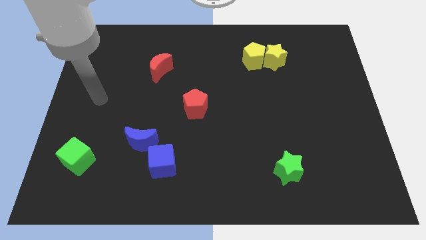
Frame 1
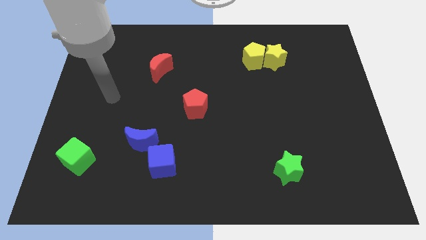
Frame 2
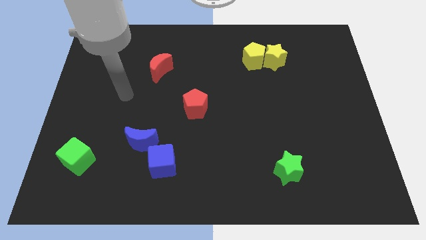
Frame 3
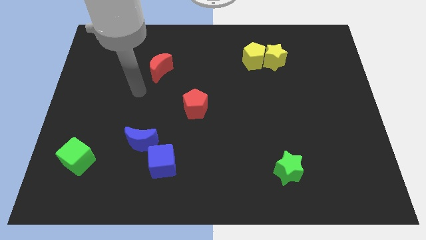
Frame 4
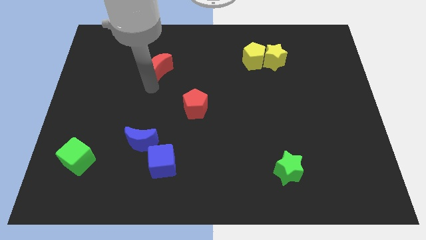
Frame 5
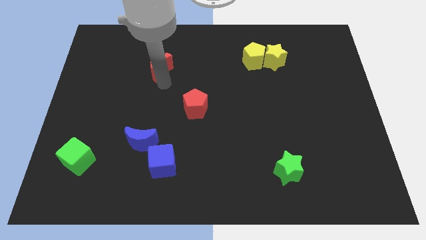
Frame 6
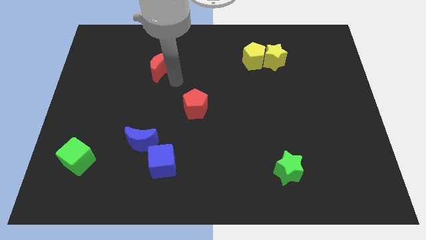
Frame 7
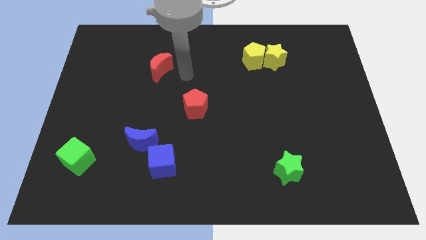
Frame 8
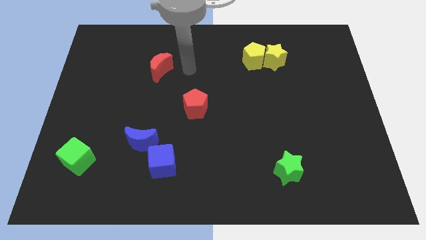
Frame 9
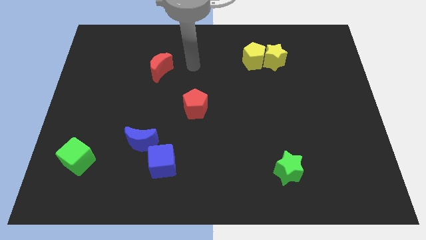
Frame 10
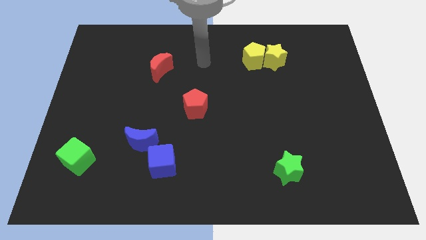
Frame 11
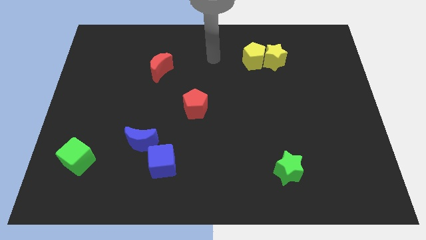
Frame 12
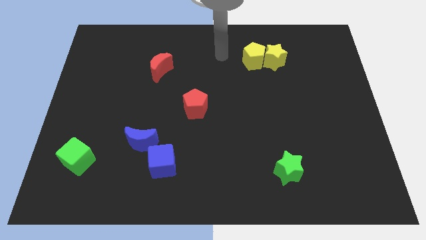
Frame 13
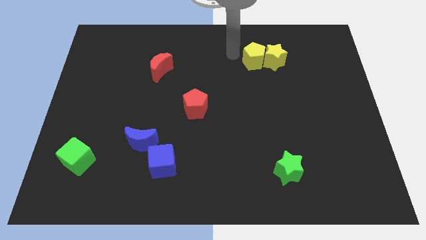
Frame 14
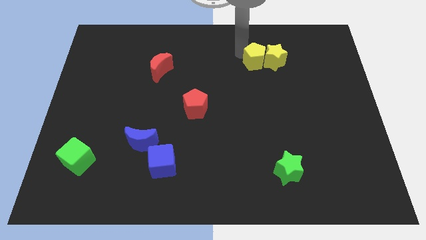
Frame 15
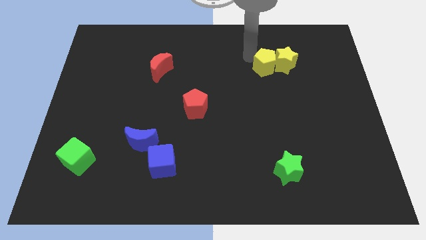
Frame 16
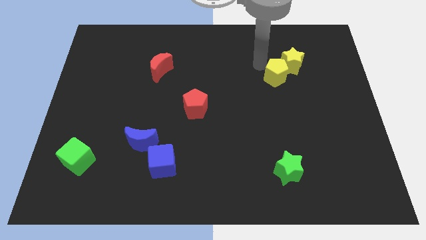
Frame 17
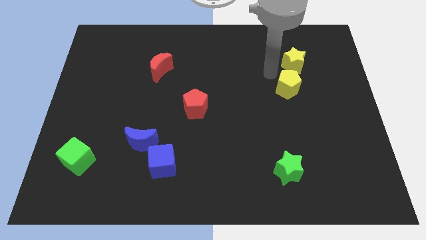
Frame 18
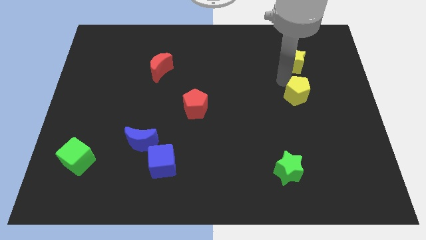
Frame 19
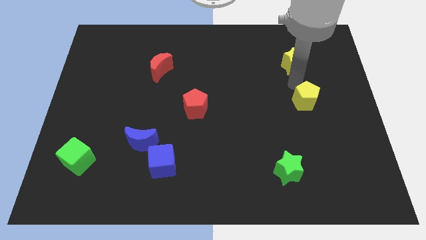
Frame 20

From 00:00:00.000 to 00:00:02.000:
separate the yellow star from the yellow pentagon

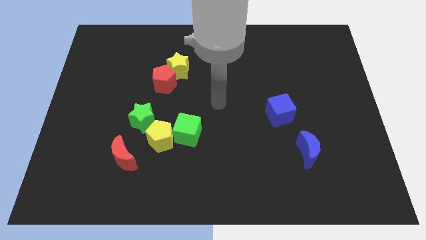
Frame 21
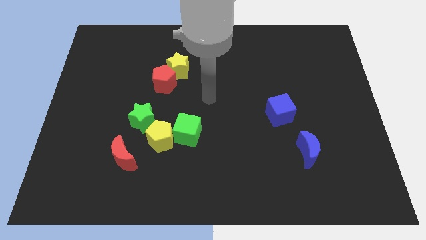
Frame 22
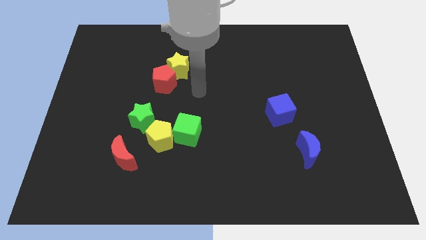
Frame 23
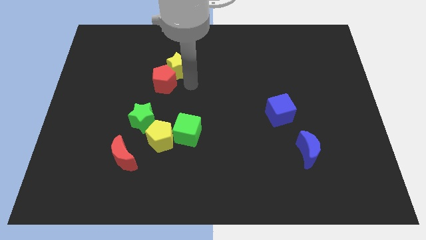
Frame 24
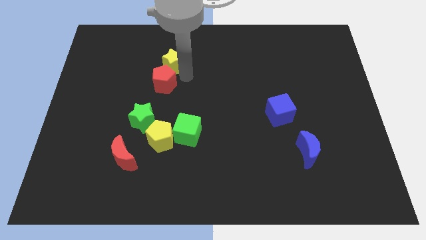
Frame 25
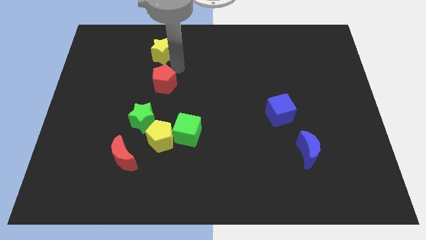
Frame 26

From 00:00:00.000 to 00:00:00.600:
pull the red pentagon apart from the yellow star

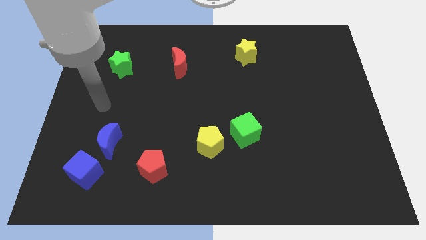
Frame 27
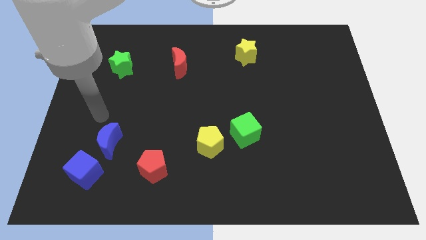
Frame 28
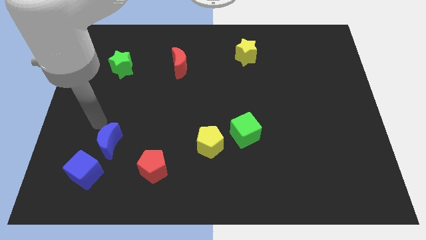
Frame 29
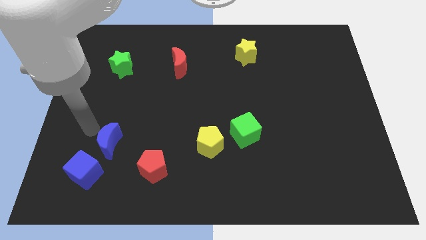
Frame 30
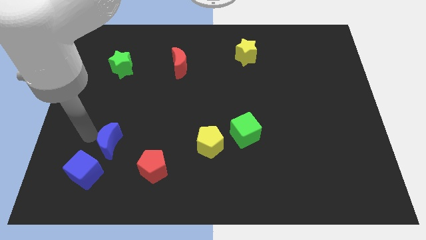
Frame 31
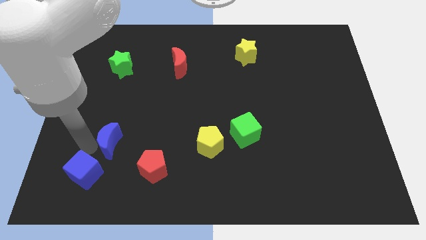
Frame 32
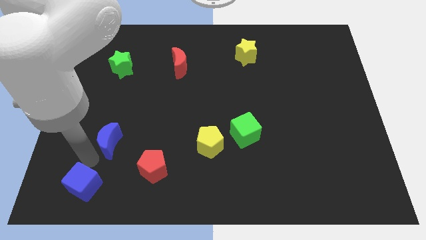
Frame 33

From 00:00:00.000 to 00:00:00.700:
separate the blue moon from the blue cube

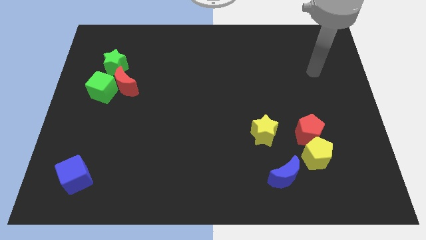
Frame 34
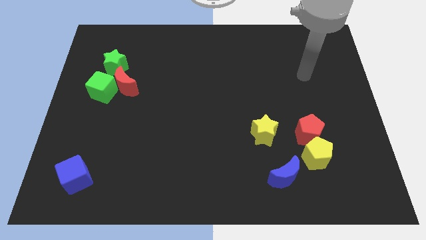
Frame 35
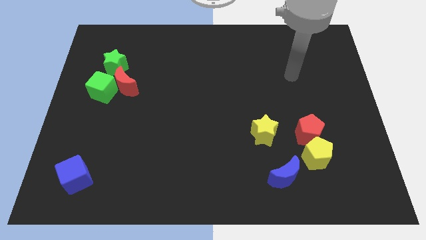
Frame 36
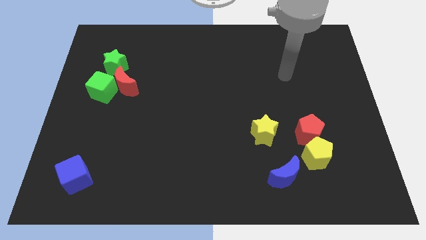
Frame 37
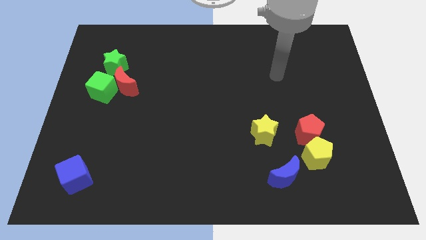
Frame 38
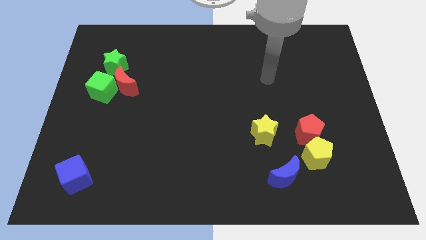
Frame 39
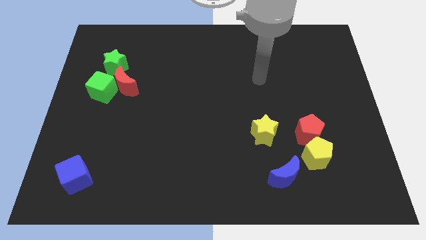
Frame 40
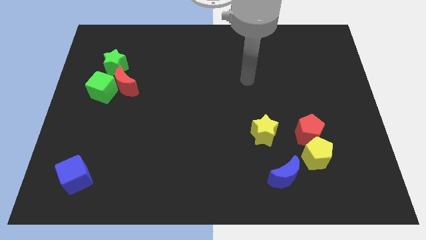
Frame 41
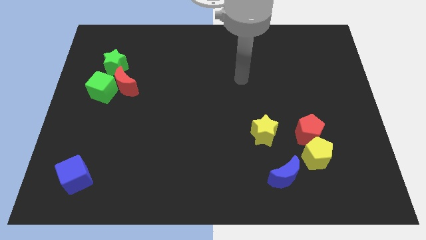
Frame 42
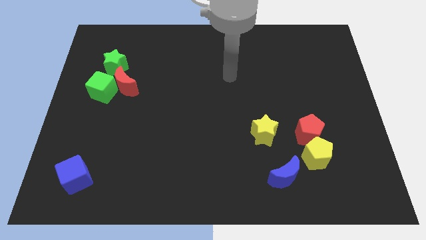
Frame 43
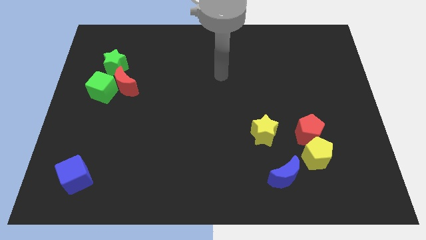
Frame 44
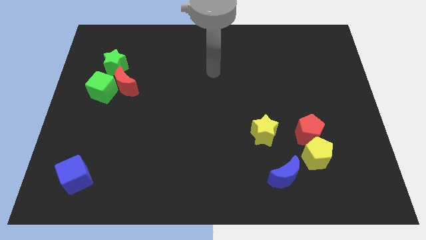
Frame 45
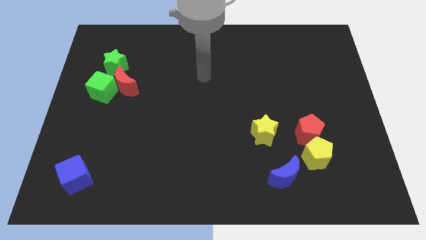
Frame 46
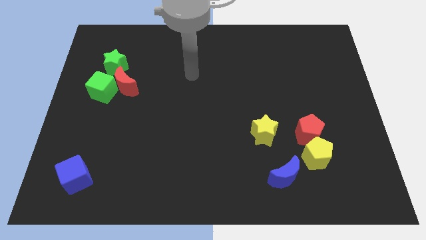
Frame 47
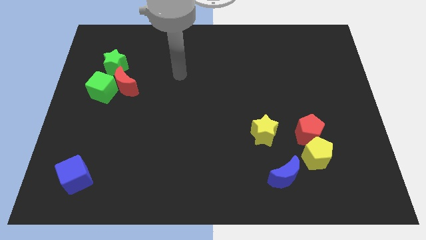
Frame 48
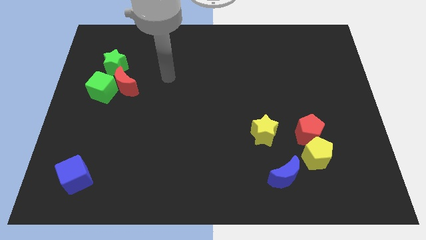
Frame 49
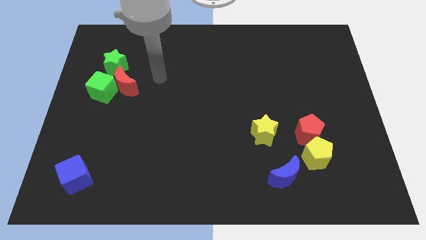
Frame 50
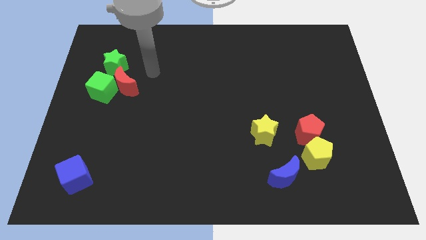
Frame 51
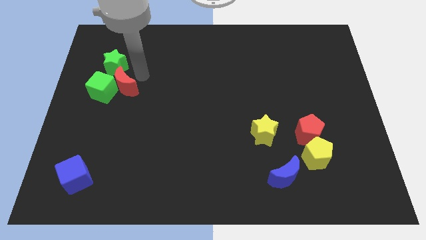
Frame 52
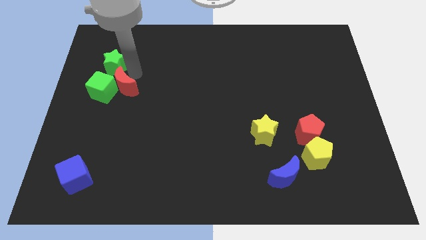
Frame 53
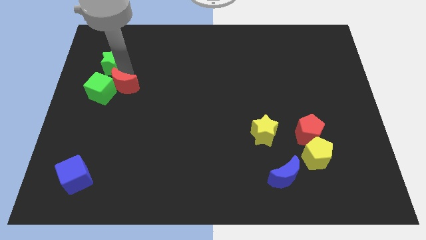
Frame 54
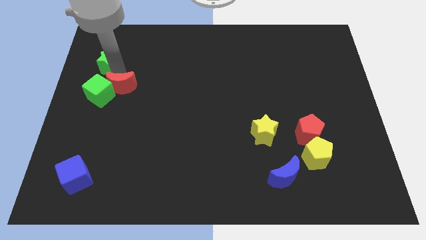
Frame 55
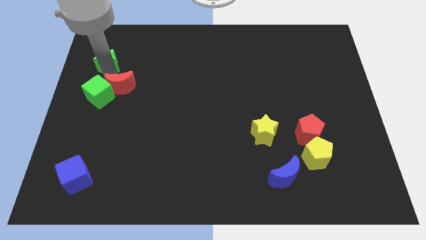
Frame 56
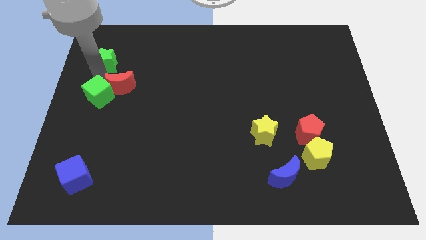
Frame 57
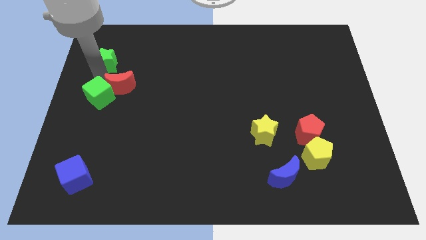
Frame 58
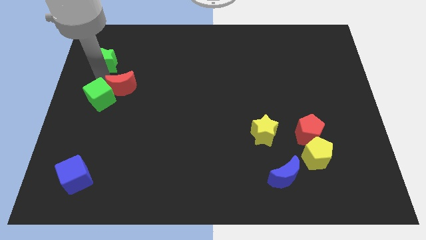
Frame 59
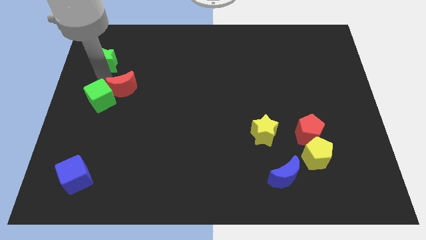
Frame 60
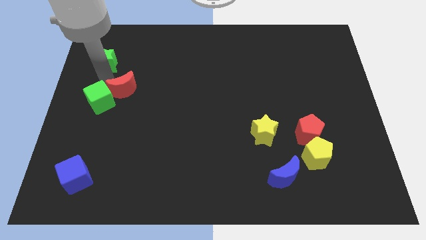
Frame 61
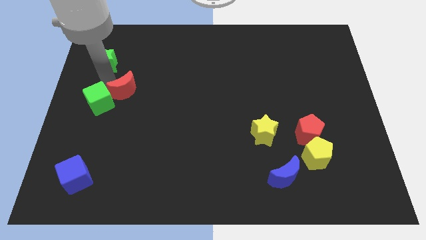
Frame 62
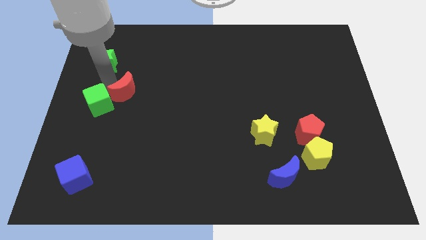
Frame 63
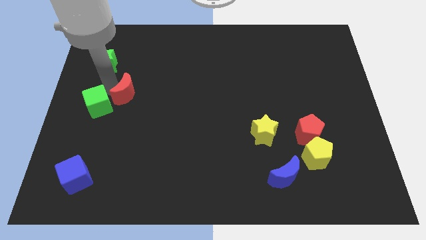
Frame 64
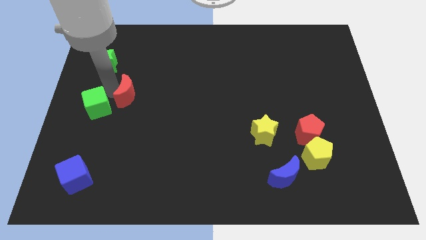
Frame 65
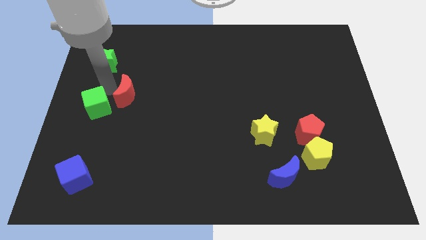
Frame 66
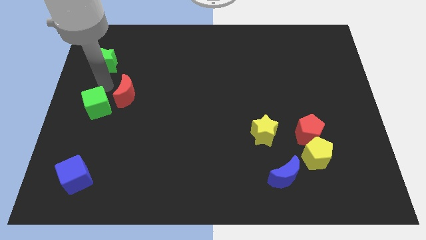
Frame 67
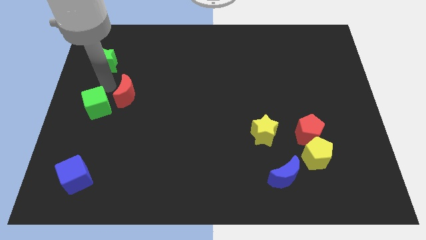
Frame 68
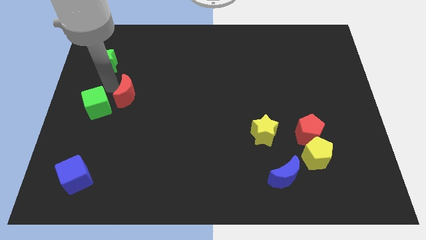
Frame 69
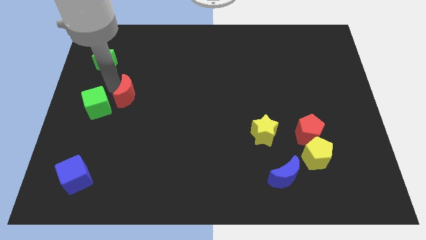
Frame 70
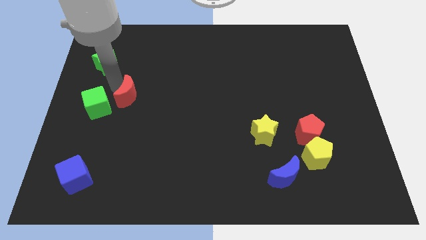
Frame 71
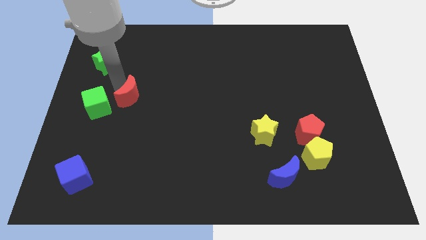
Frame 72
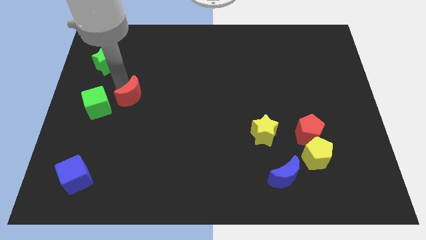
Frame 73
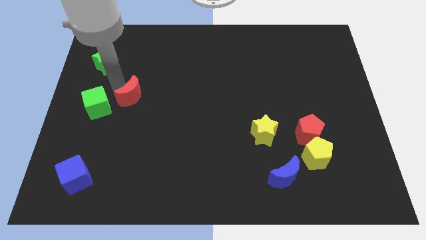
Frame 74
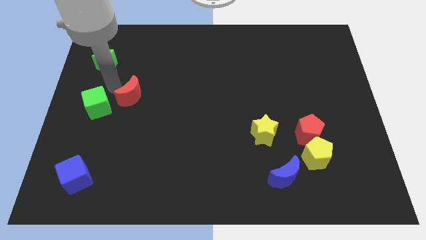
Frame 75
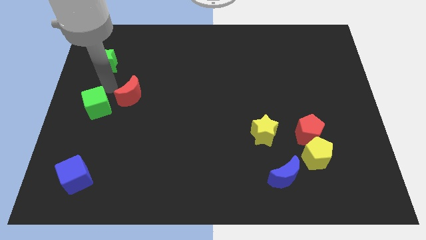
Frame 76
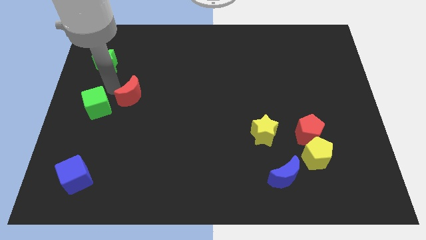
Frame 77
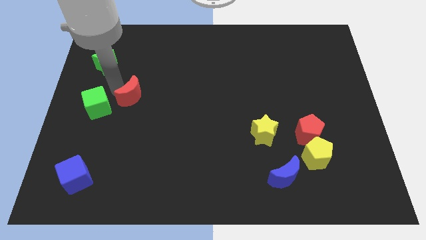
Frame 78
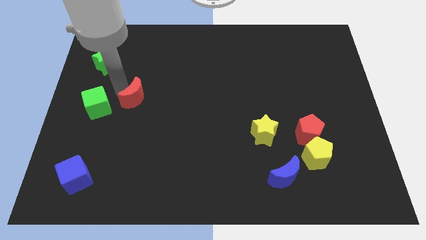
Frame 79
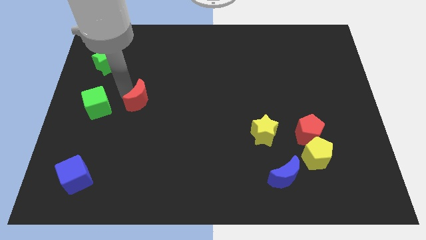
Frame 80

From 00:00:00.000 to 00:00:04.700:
separate the red moon from the green cube and green star

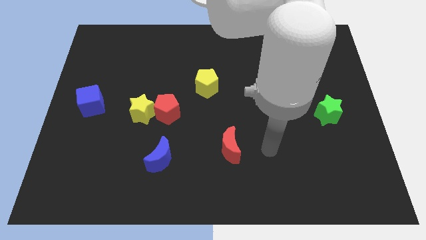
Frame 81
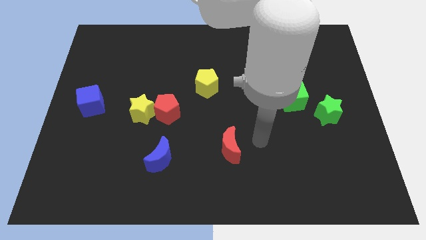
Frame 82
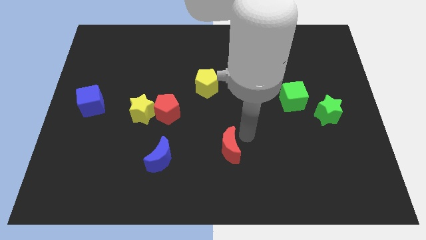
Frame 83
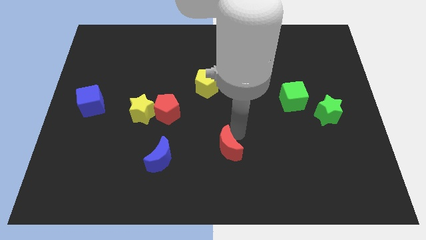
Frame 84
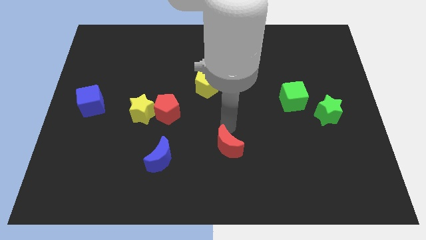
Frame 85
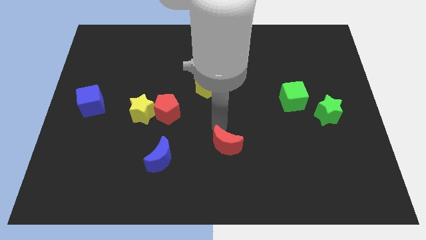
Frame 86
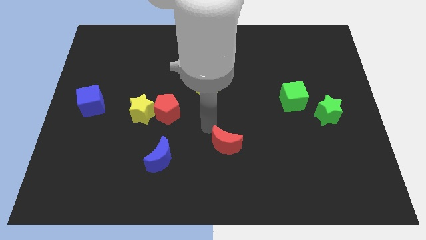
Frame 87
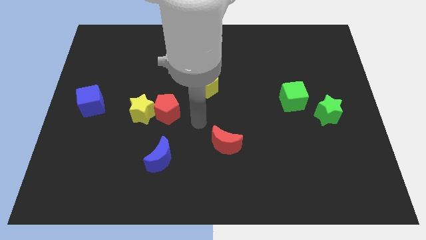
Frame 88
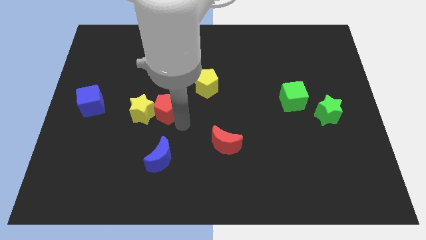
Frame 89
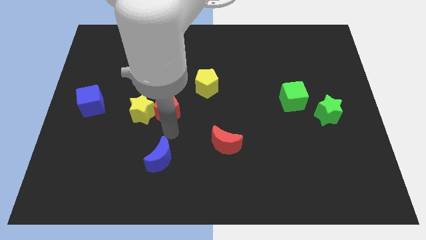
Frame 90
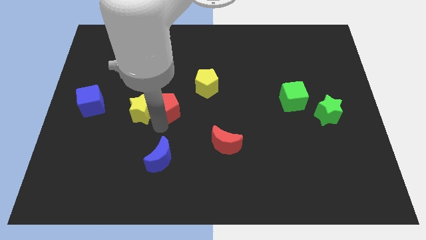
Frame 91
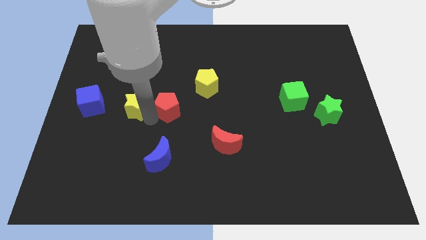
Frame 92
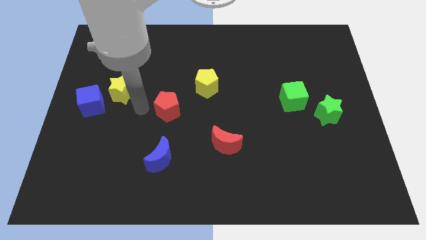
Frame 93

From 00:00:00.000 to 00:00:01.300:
separate the red pentagon from the yellow star
